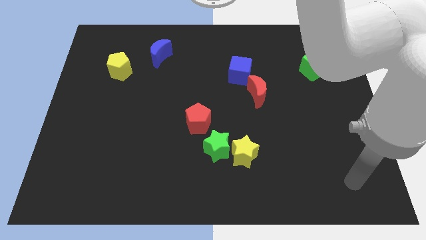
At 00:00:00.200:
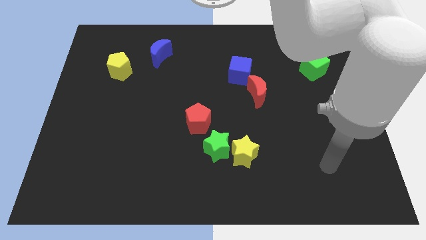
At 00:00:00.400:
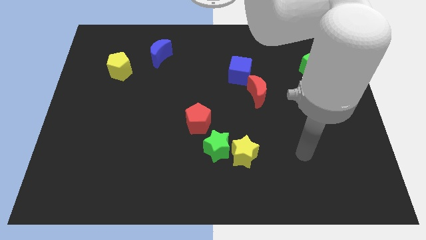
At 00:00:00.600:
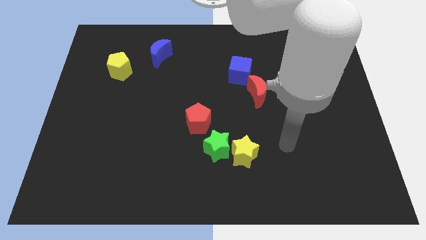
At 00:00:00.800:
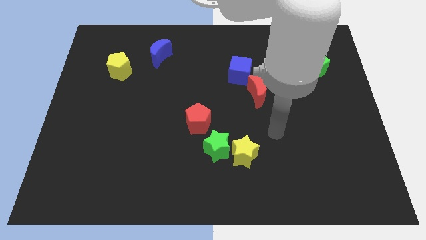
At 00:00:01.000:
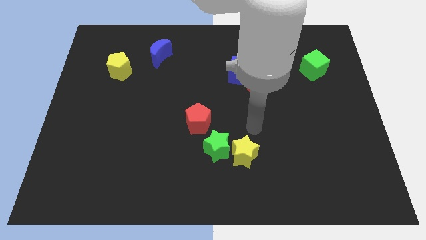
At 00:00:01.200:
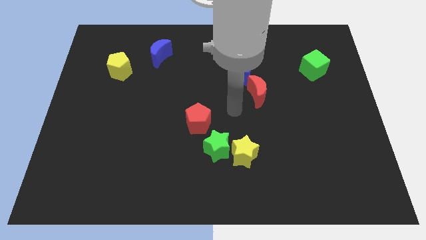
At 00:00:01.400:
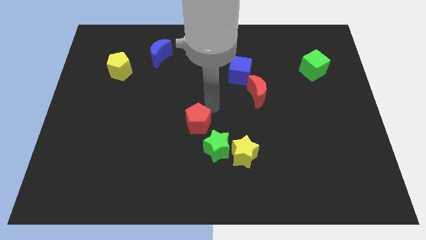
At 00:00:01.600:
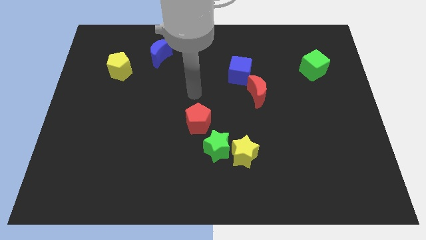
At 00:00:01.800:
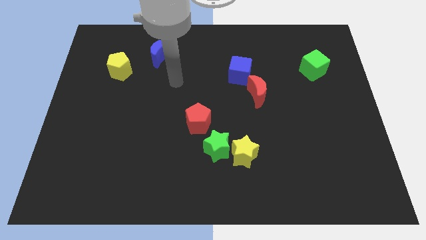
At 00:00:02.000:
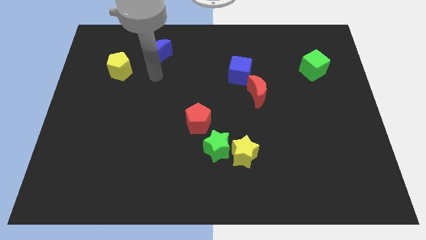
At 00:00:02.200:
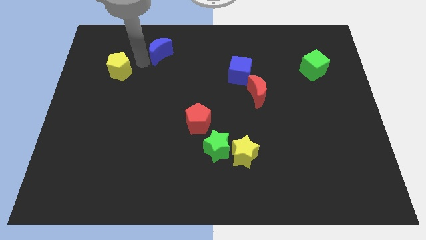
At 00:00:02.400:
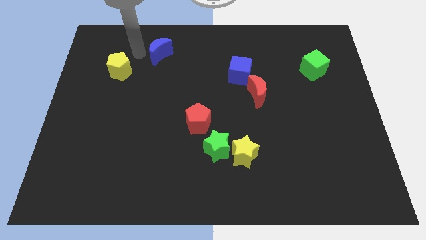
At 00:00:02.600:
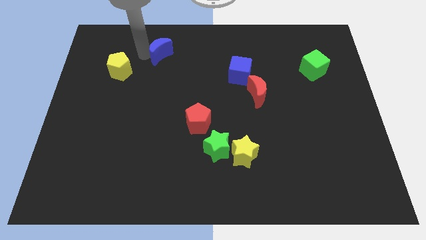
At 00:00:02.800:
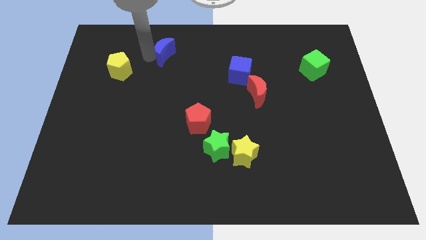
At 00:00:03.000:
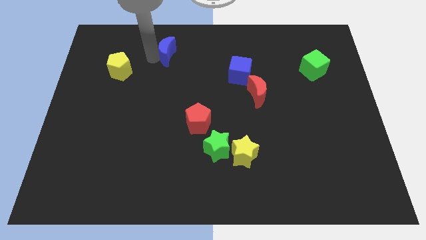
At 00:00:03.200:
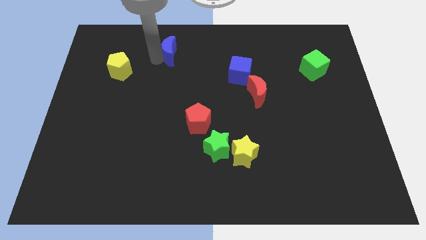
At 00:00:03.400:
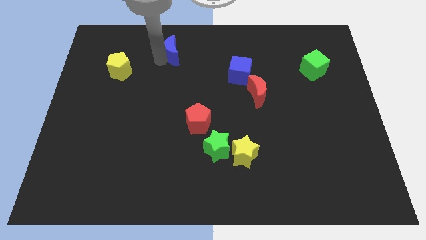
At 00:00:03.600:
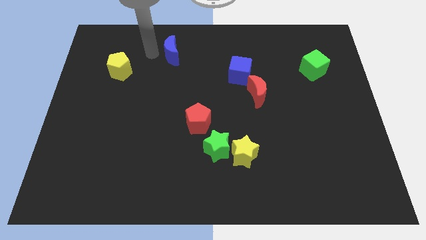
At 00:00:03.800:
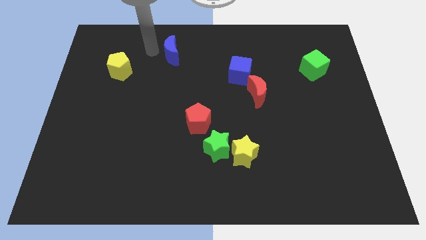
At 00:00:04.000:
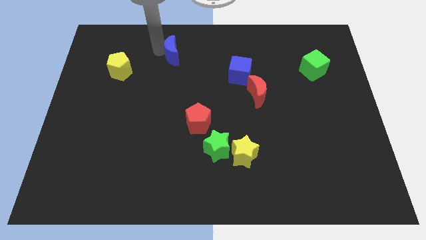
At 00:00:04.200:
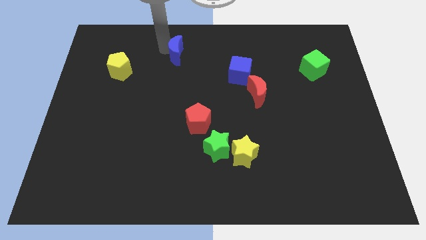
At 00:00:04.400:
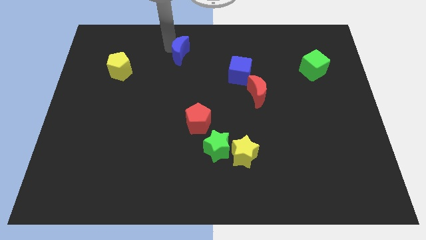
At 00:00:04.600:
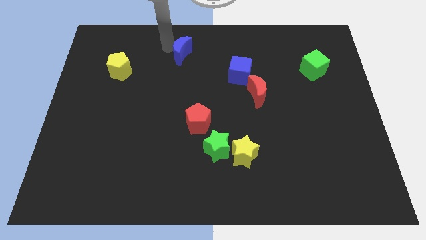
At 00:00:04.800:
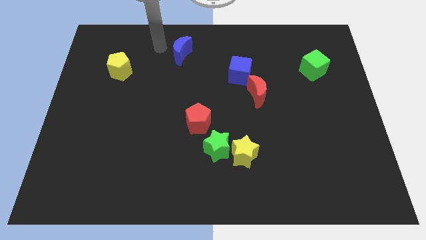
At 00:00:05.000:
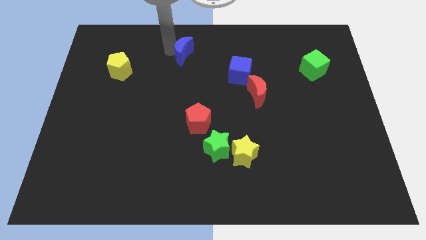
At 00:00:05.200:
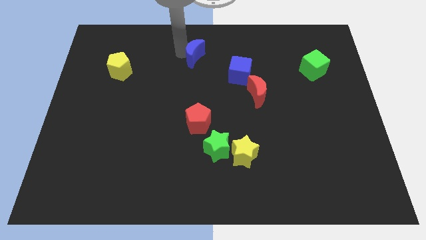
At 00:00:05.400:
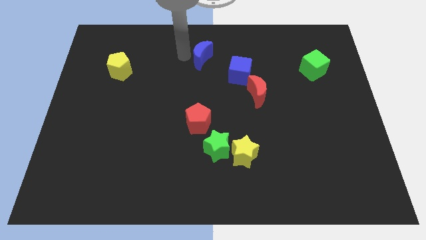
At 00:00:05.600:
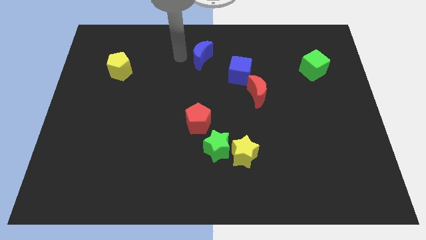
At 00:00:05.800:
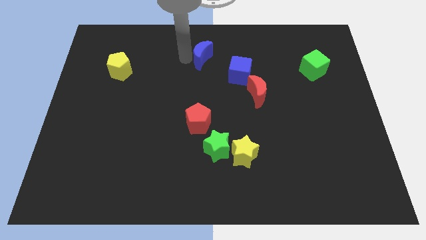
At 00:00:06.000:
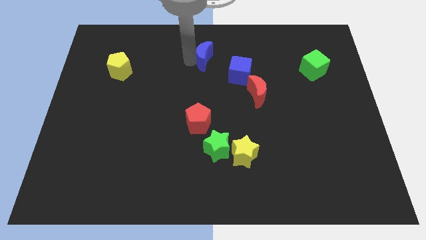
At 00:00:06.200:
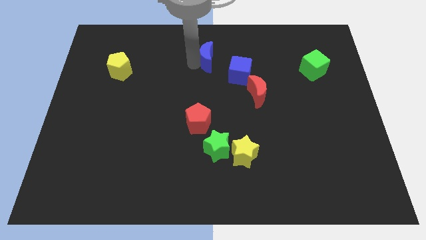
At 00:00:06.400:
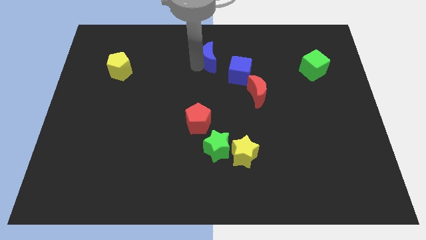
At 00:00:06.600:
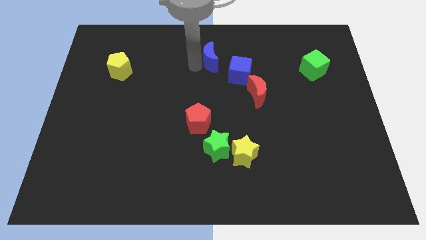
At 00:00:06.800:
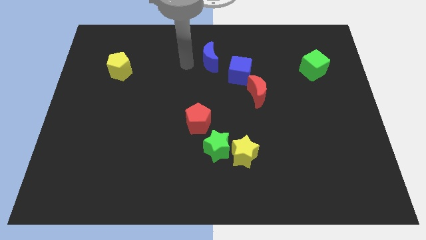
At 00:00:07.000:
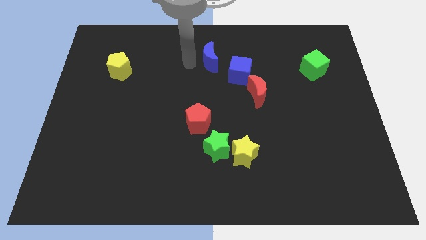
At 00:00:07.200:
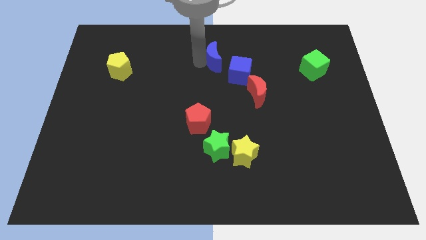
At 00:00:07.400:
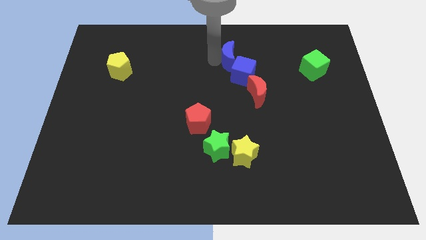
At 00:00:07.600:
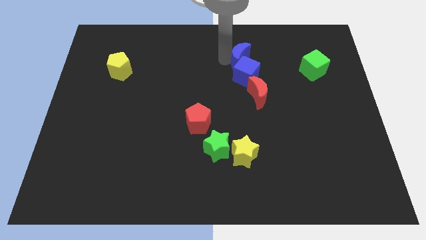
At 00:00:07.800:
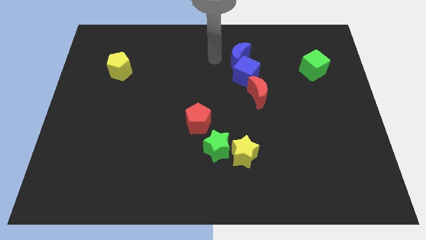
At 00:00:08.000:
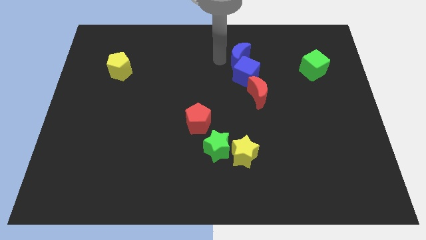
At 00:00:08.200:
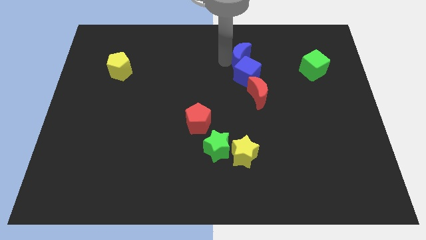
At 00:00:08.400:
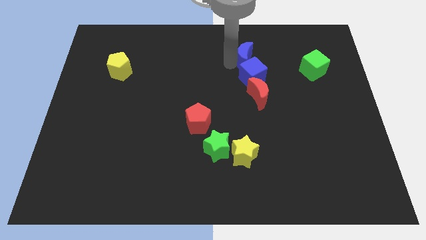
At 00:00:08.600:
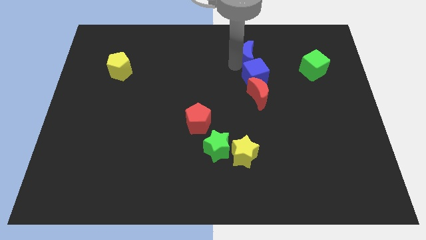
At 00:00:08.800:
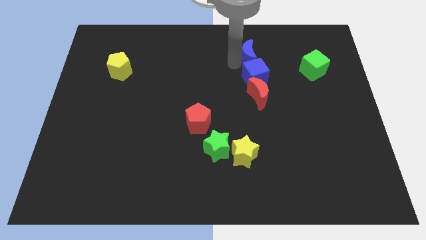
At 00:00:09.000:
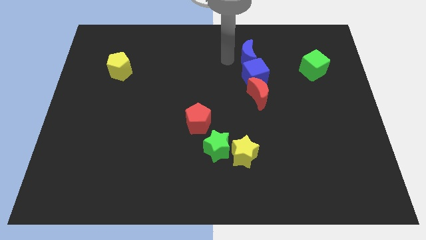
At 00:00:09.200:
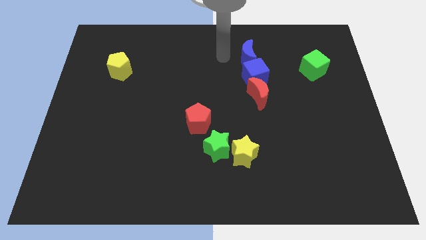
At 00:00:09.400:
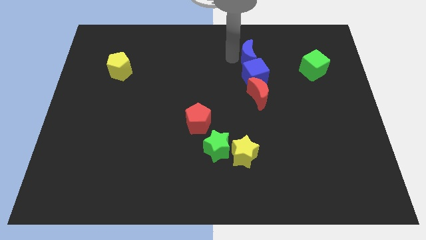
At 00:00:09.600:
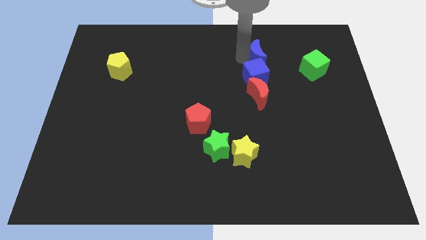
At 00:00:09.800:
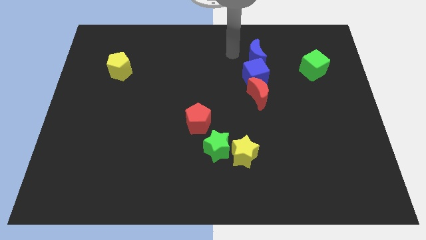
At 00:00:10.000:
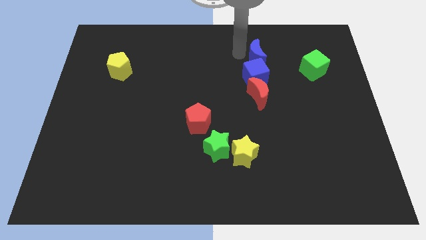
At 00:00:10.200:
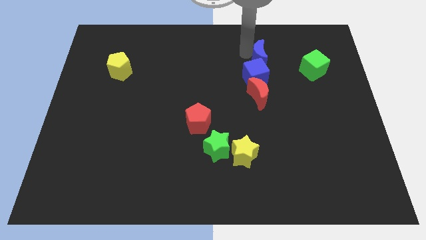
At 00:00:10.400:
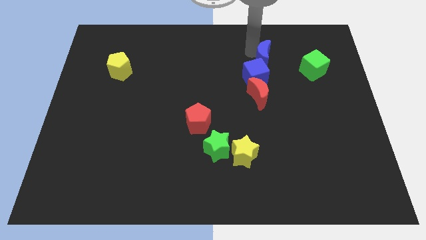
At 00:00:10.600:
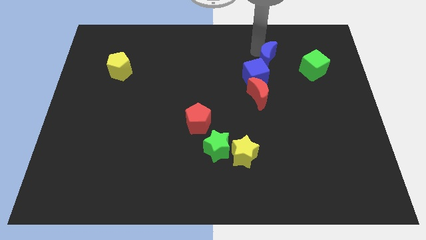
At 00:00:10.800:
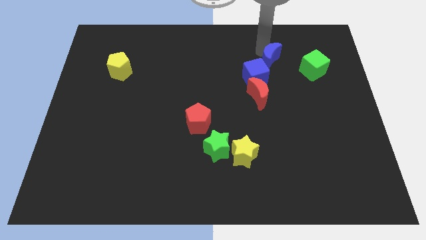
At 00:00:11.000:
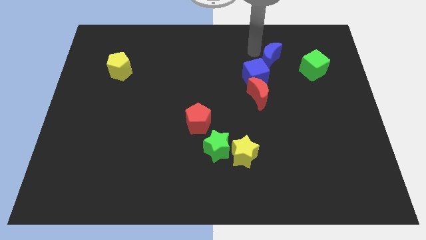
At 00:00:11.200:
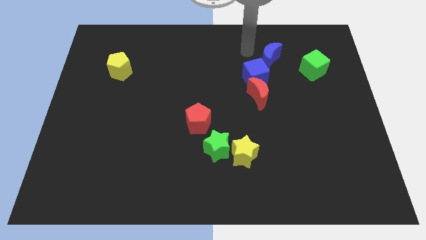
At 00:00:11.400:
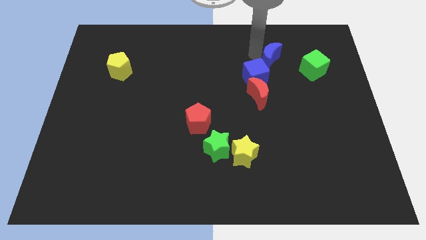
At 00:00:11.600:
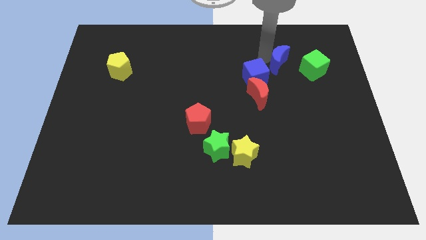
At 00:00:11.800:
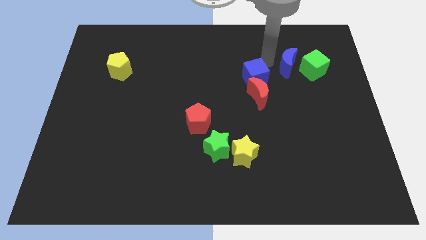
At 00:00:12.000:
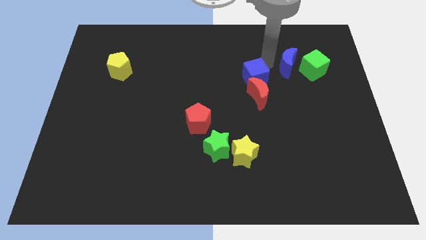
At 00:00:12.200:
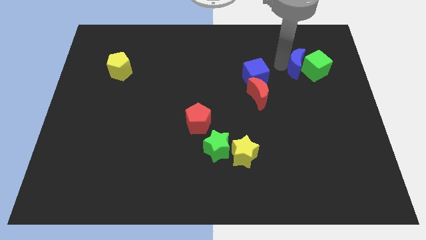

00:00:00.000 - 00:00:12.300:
slide the blue moon next to the green cube

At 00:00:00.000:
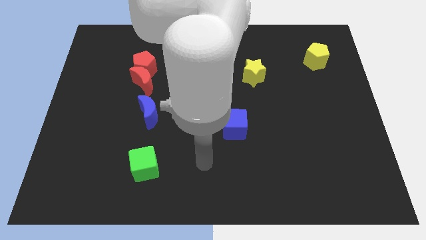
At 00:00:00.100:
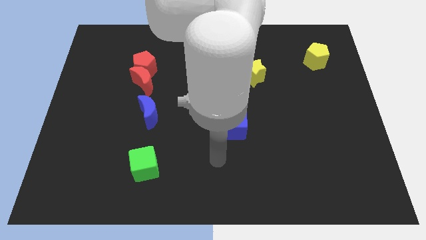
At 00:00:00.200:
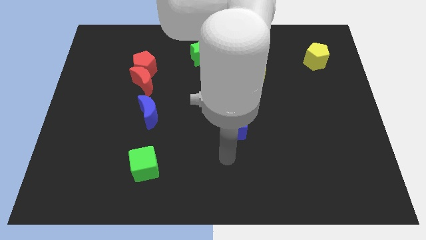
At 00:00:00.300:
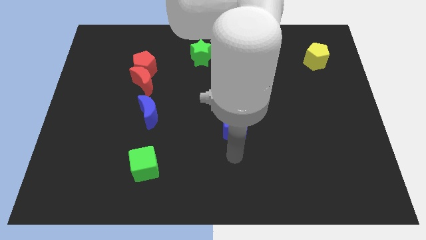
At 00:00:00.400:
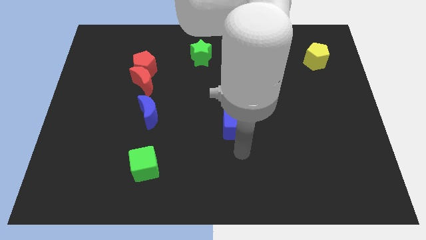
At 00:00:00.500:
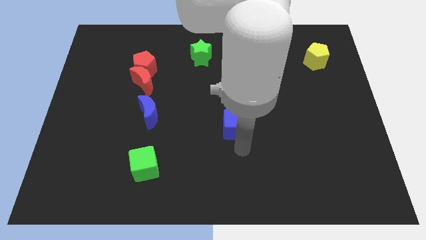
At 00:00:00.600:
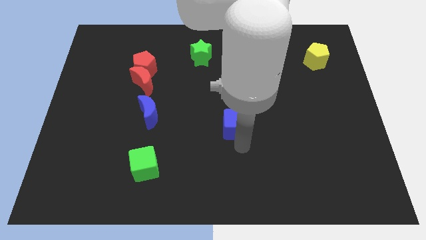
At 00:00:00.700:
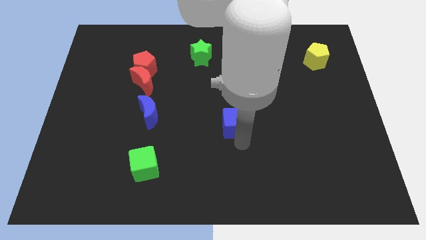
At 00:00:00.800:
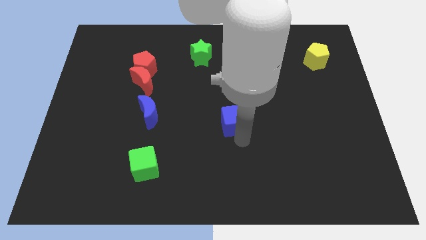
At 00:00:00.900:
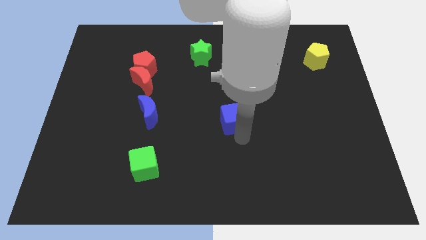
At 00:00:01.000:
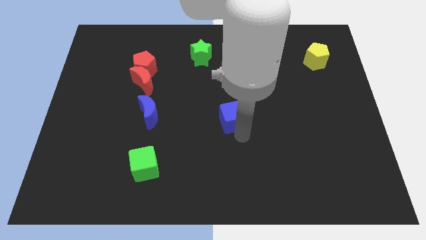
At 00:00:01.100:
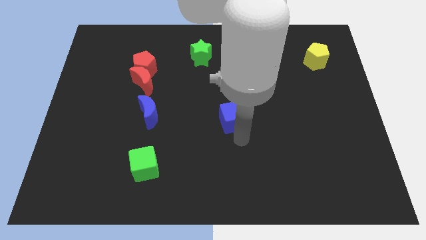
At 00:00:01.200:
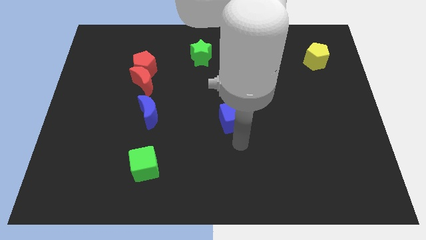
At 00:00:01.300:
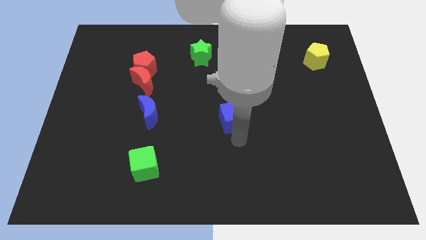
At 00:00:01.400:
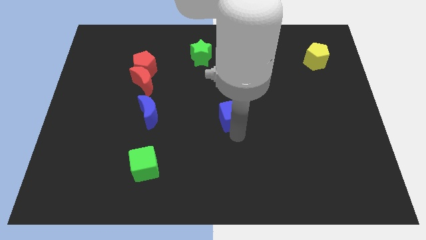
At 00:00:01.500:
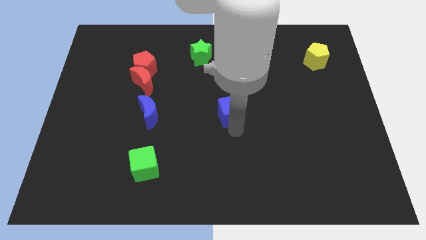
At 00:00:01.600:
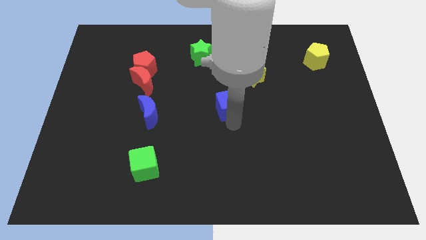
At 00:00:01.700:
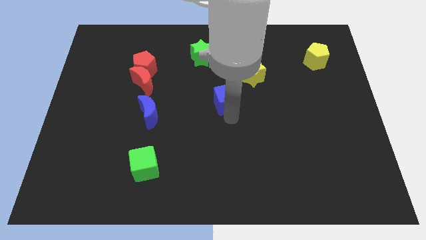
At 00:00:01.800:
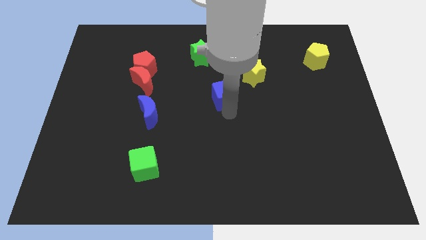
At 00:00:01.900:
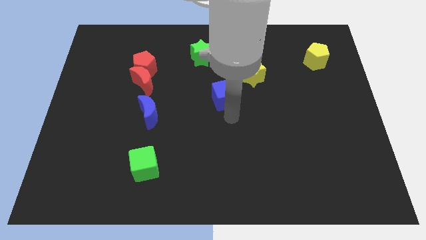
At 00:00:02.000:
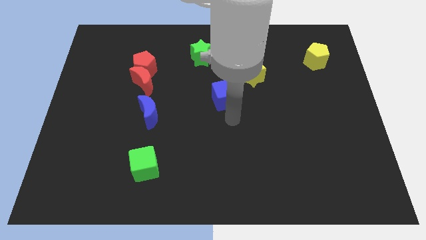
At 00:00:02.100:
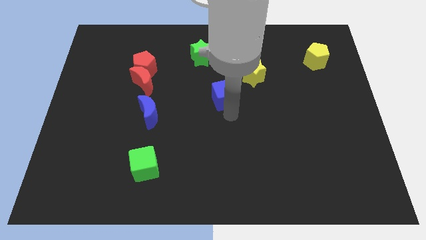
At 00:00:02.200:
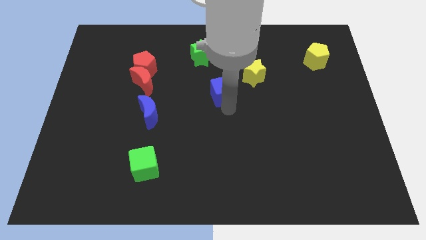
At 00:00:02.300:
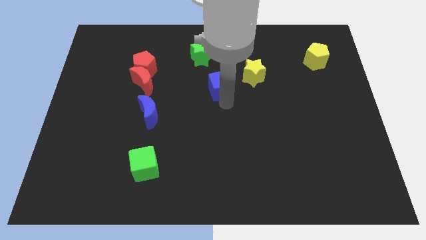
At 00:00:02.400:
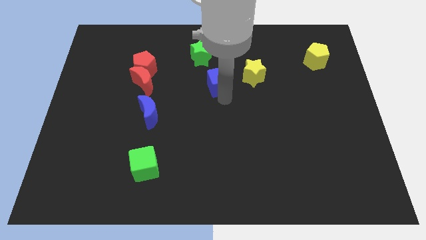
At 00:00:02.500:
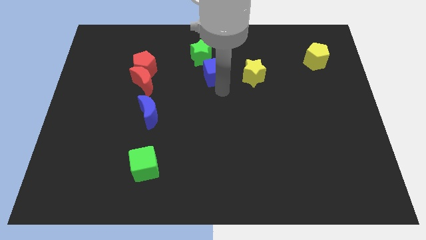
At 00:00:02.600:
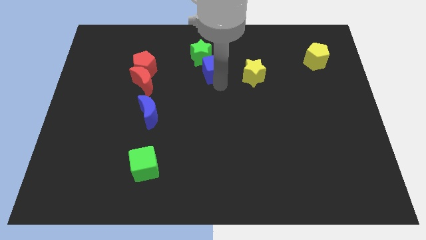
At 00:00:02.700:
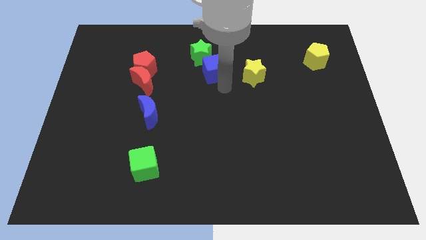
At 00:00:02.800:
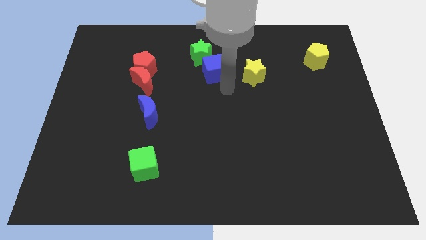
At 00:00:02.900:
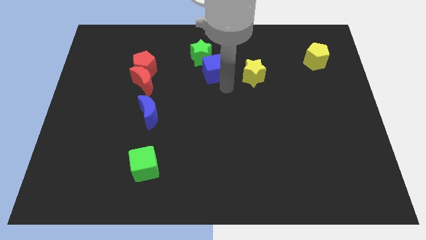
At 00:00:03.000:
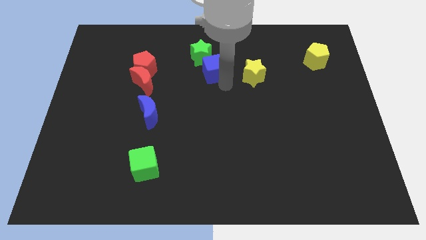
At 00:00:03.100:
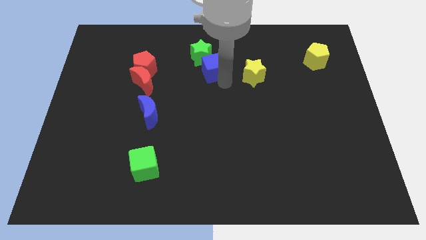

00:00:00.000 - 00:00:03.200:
put the blue cube towards the green star
